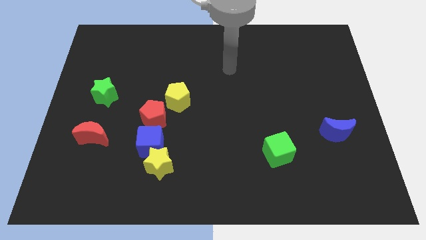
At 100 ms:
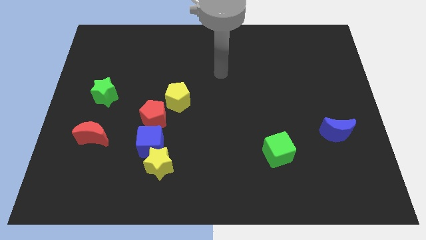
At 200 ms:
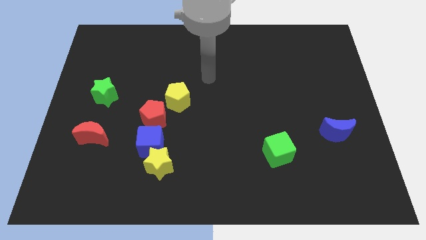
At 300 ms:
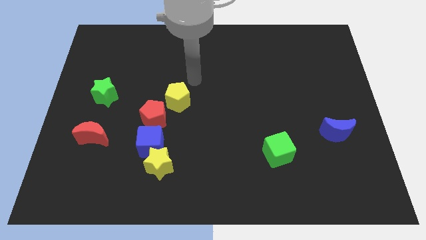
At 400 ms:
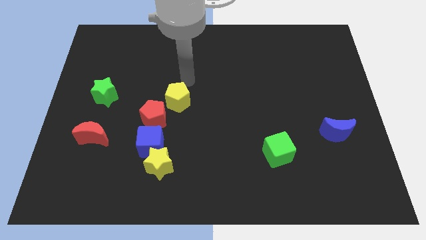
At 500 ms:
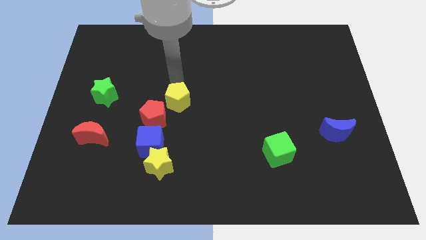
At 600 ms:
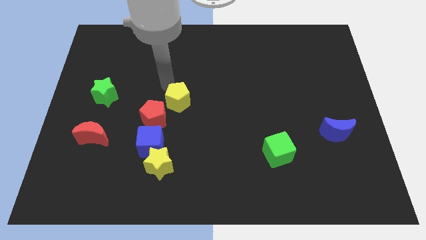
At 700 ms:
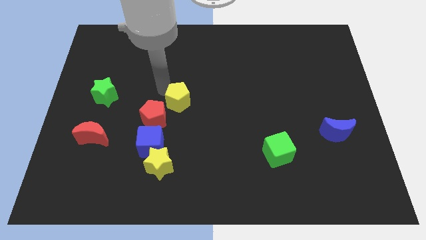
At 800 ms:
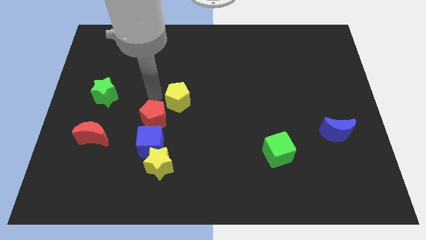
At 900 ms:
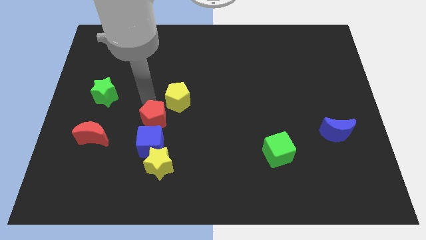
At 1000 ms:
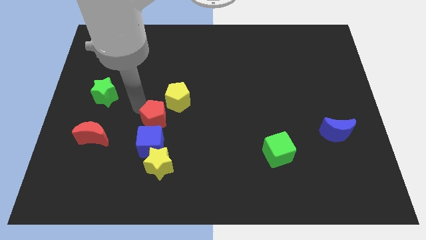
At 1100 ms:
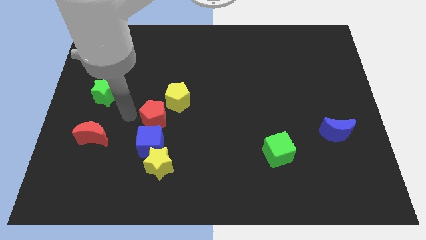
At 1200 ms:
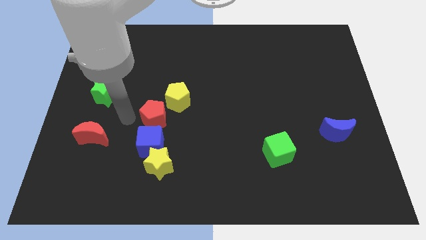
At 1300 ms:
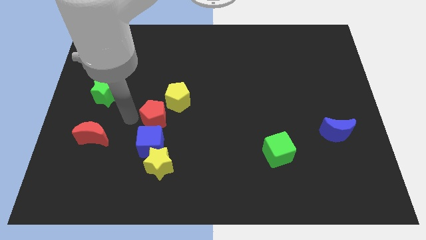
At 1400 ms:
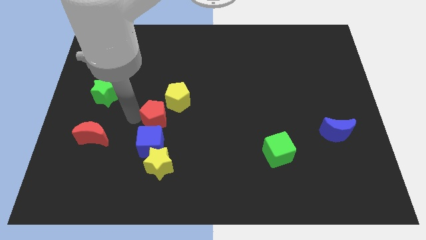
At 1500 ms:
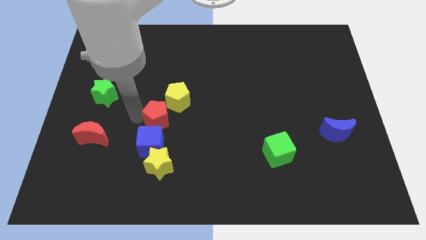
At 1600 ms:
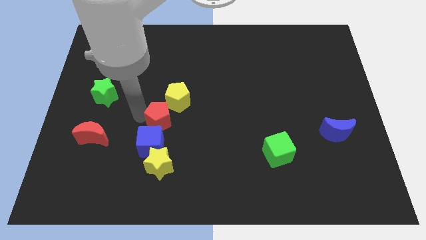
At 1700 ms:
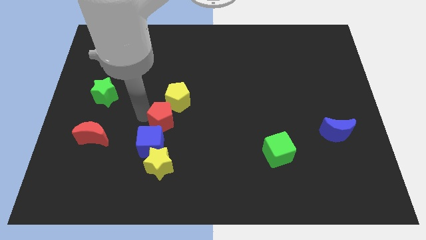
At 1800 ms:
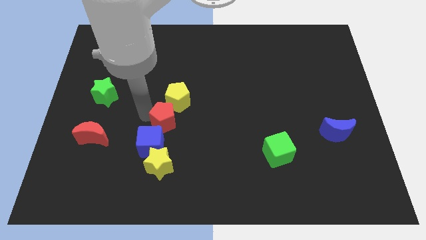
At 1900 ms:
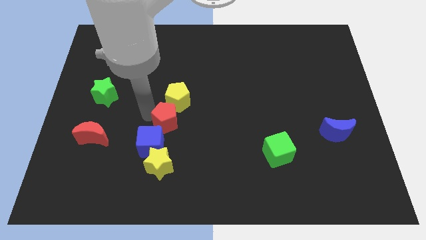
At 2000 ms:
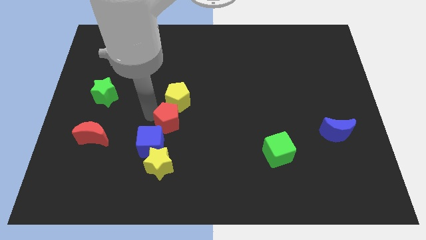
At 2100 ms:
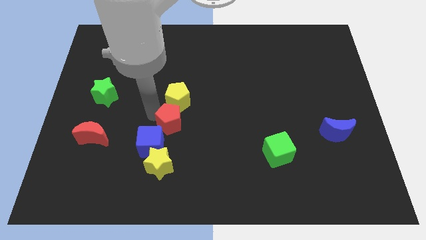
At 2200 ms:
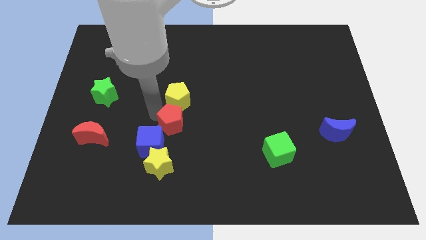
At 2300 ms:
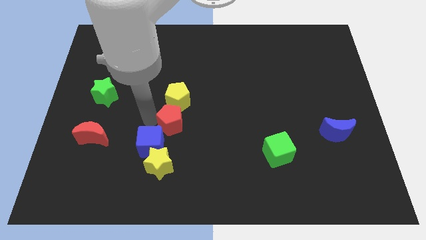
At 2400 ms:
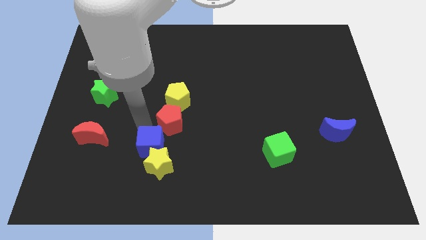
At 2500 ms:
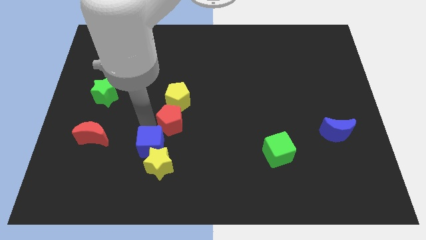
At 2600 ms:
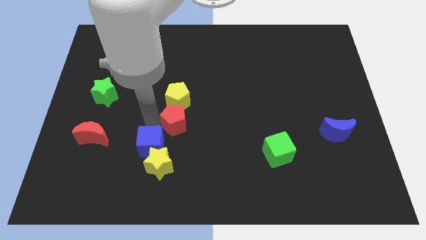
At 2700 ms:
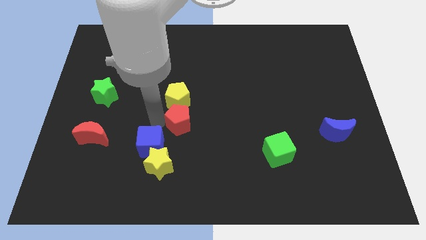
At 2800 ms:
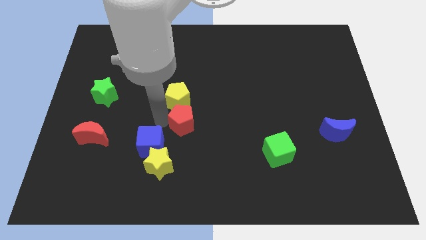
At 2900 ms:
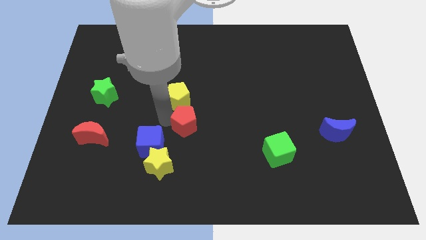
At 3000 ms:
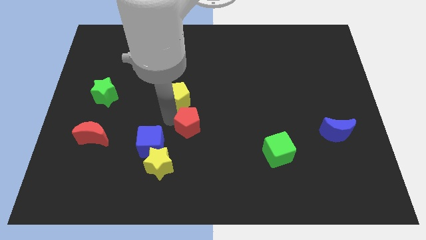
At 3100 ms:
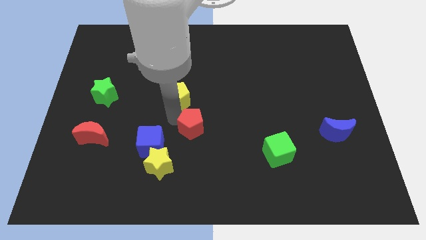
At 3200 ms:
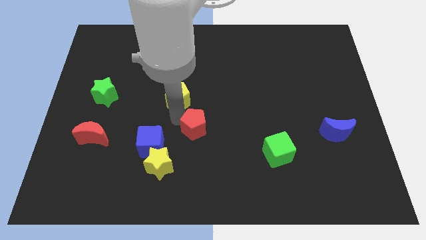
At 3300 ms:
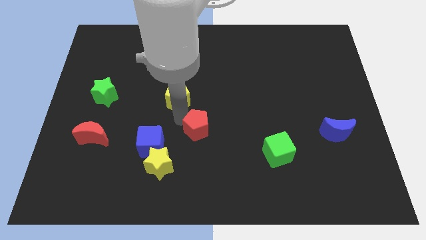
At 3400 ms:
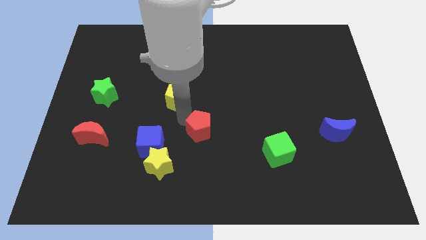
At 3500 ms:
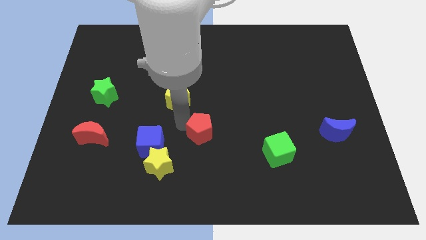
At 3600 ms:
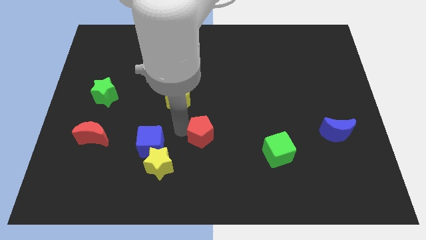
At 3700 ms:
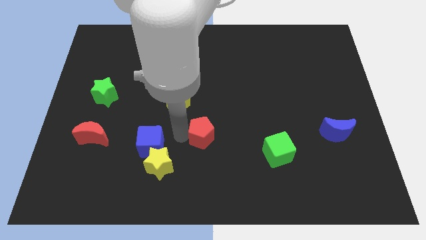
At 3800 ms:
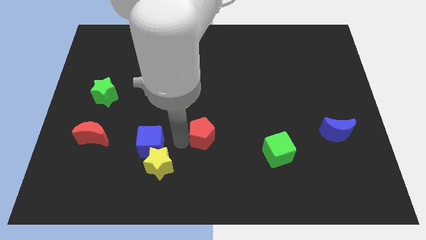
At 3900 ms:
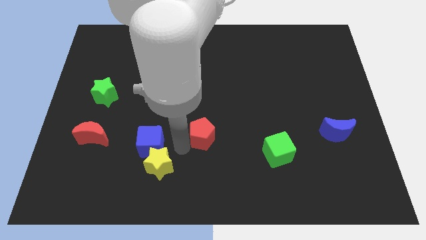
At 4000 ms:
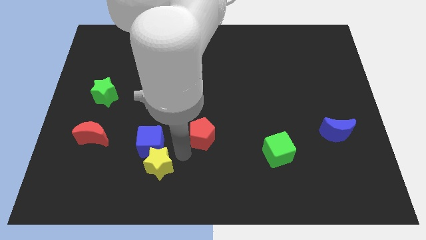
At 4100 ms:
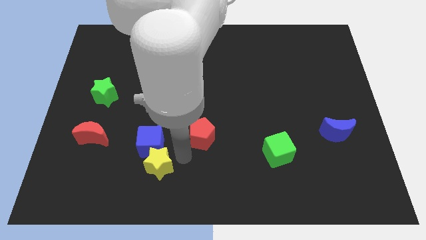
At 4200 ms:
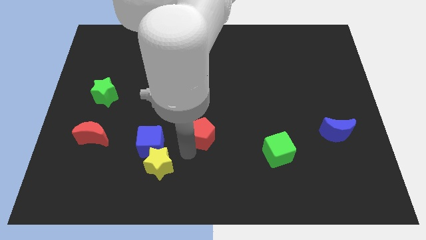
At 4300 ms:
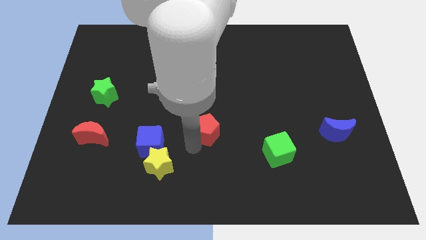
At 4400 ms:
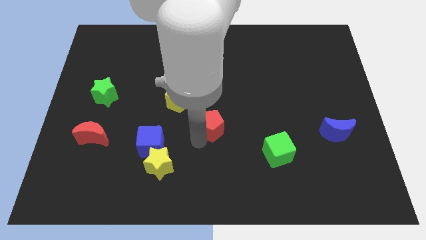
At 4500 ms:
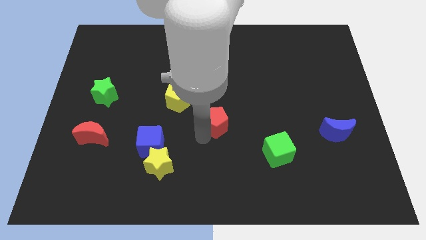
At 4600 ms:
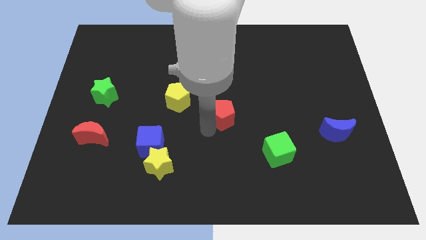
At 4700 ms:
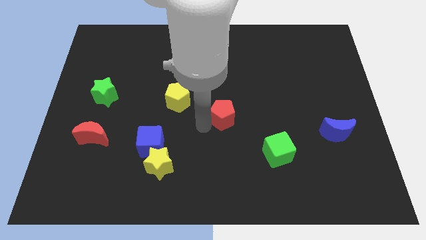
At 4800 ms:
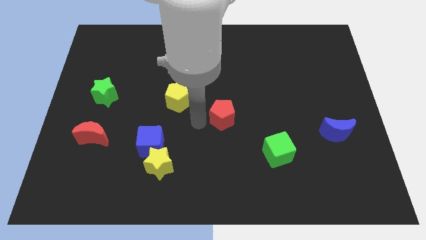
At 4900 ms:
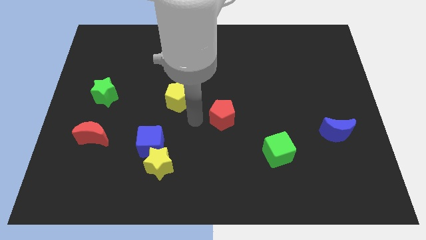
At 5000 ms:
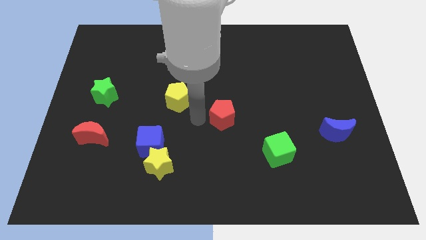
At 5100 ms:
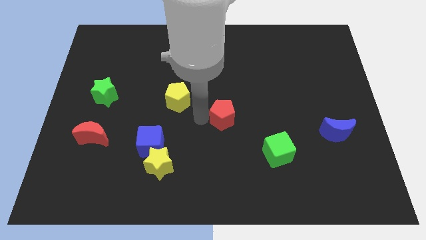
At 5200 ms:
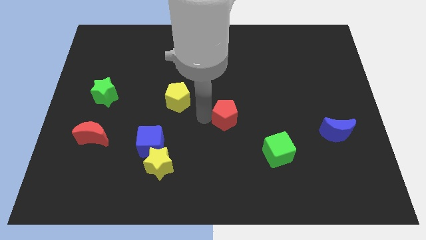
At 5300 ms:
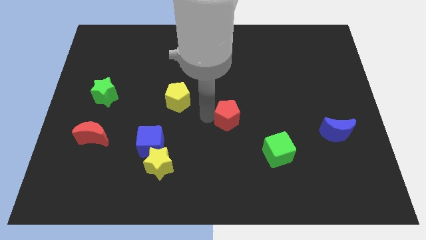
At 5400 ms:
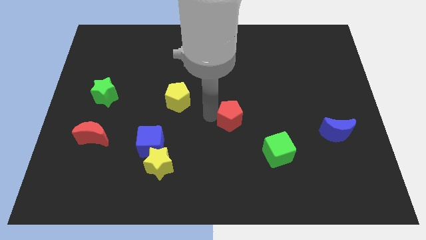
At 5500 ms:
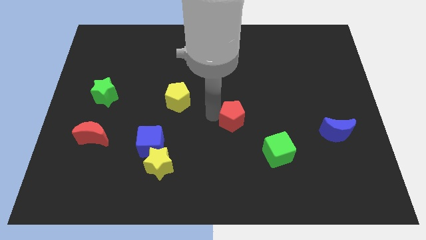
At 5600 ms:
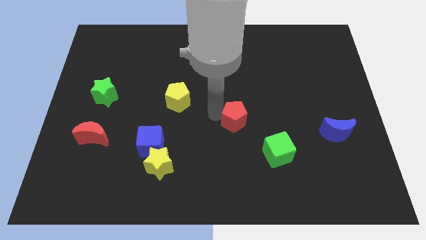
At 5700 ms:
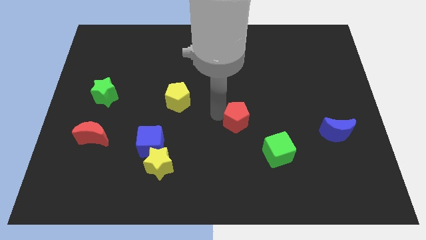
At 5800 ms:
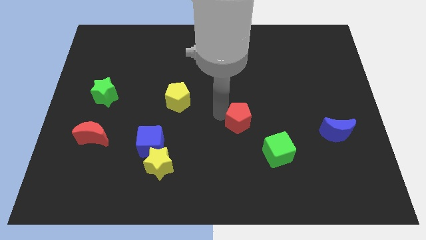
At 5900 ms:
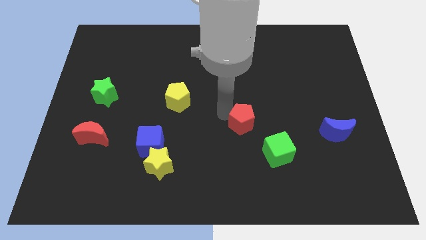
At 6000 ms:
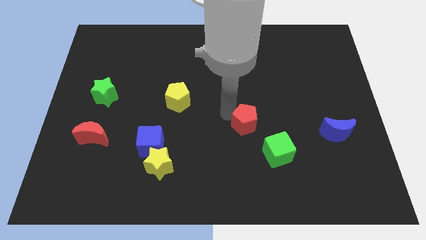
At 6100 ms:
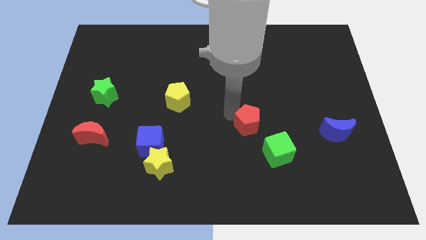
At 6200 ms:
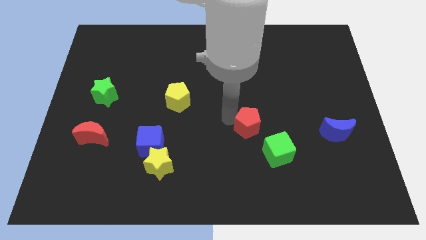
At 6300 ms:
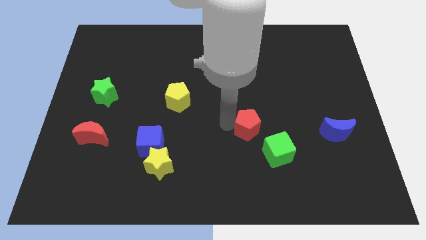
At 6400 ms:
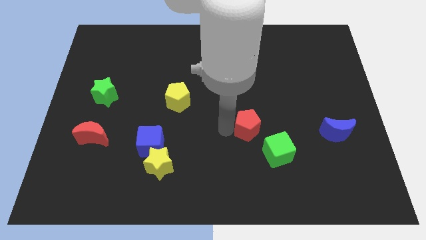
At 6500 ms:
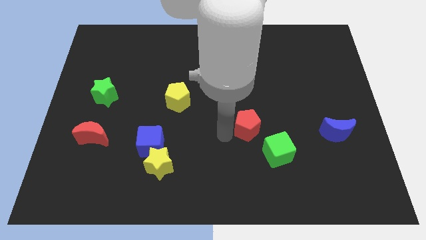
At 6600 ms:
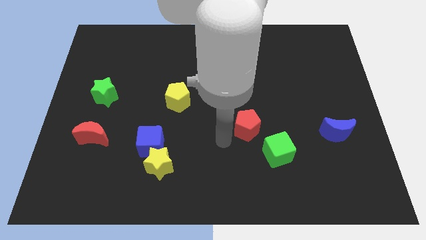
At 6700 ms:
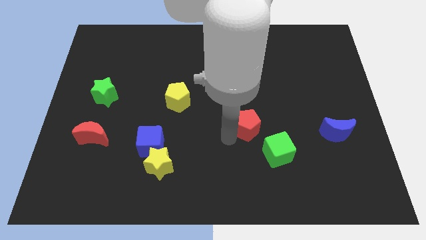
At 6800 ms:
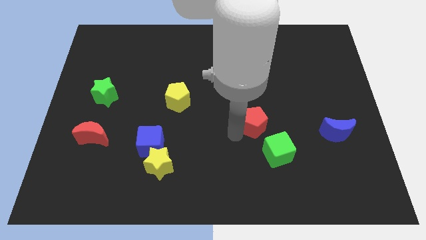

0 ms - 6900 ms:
push the red pentagon to the top side of the green cube
